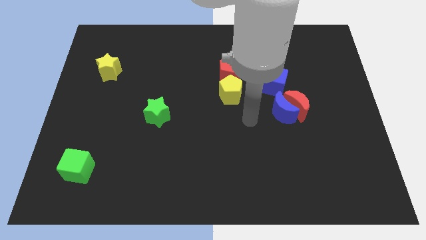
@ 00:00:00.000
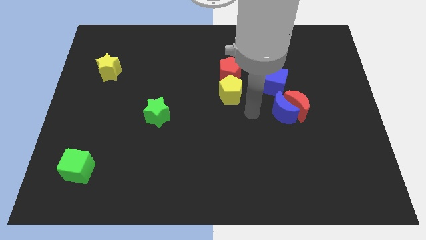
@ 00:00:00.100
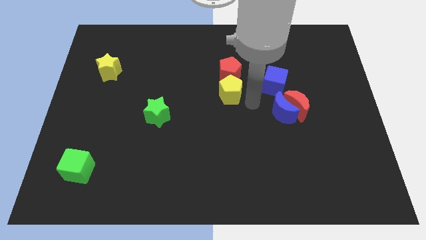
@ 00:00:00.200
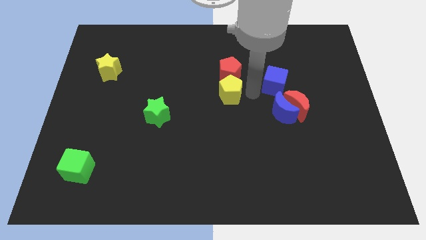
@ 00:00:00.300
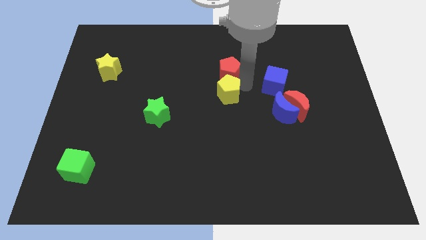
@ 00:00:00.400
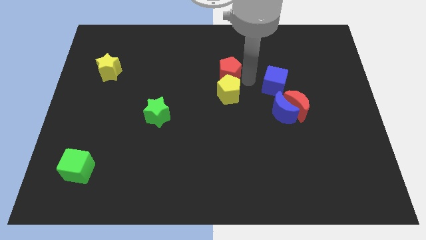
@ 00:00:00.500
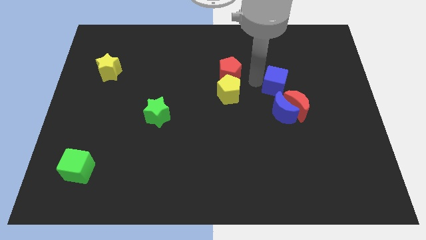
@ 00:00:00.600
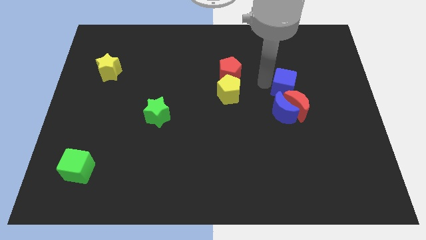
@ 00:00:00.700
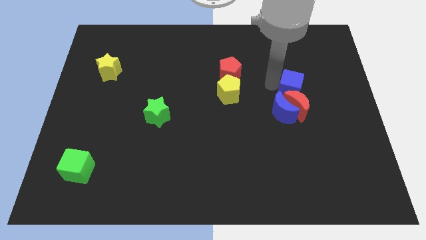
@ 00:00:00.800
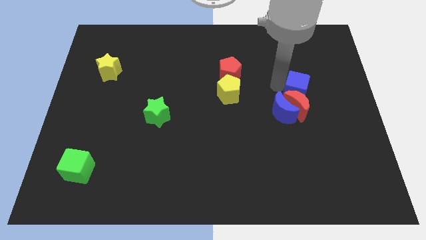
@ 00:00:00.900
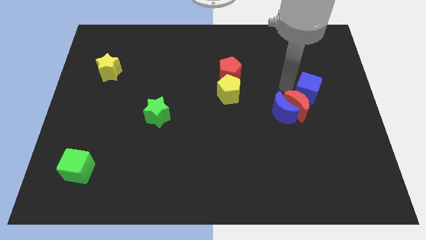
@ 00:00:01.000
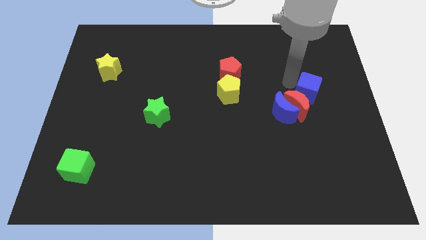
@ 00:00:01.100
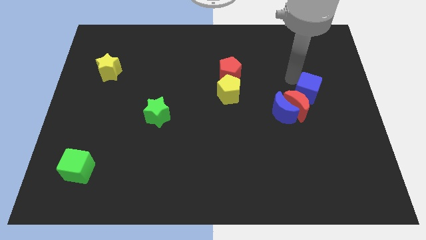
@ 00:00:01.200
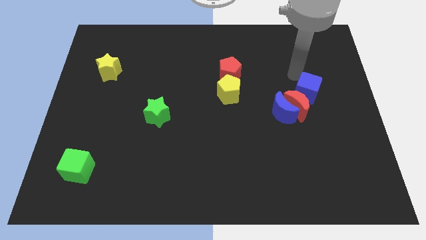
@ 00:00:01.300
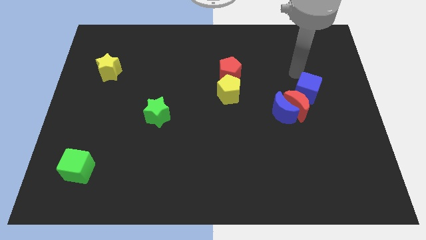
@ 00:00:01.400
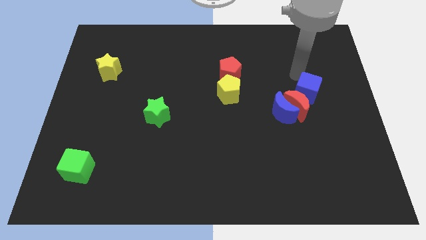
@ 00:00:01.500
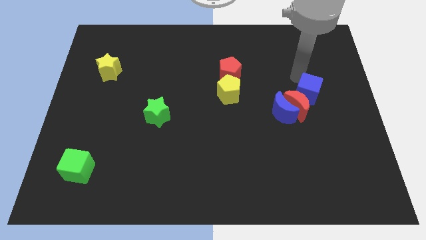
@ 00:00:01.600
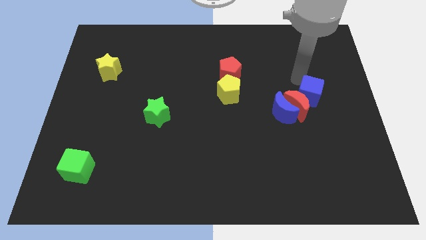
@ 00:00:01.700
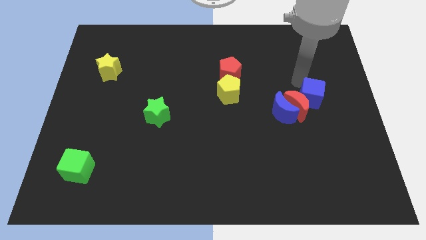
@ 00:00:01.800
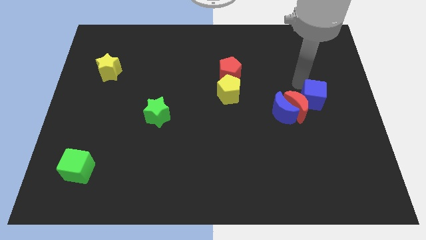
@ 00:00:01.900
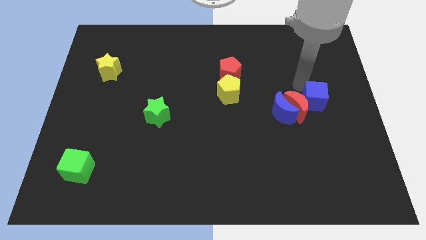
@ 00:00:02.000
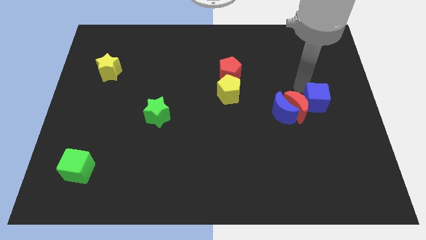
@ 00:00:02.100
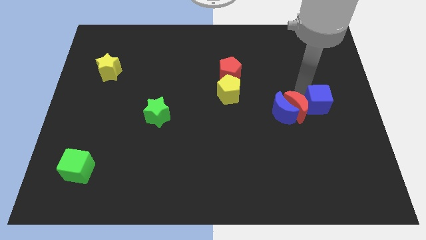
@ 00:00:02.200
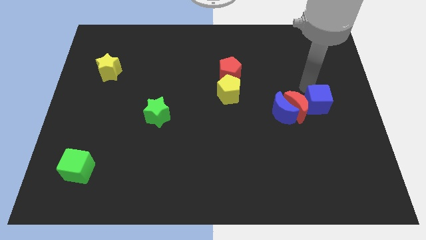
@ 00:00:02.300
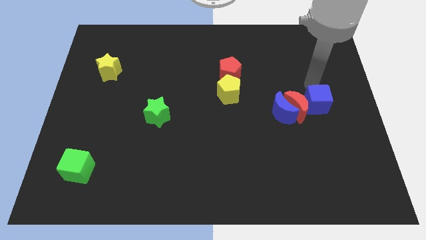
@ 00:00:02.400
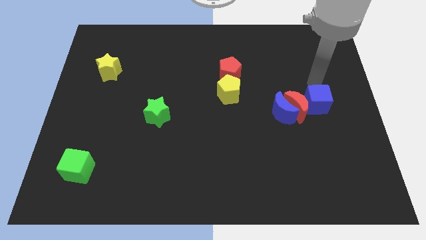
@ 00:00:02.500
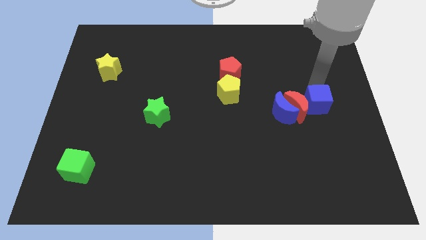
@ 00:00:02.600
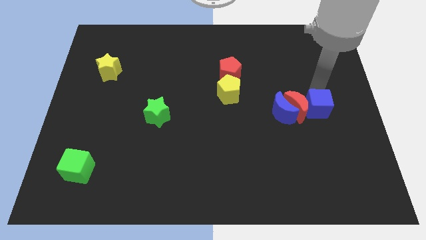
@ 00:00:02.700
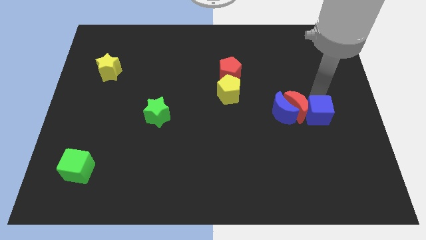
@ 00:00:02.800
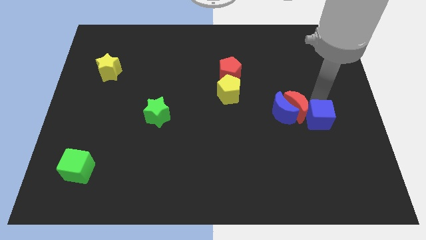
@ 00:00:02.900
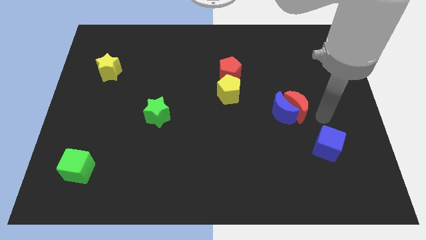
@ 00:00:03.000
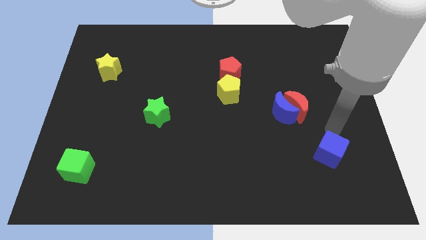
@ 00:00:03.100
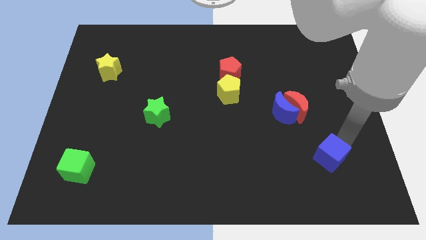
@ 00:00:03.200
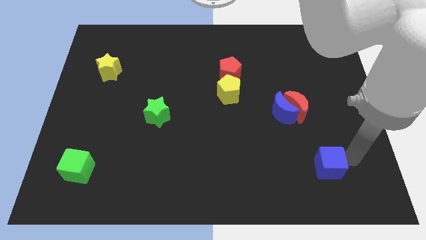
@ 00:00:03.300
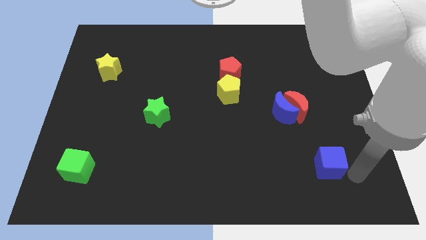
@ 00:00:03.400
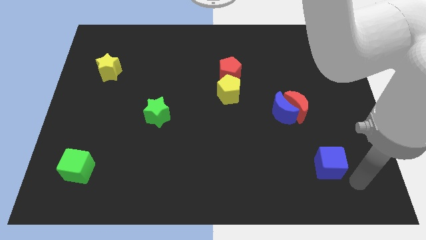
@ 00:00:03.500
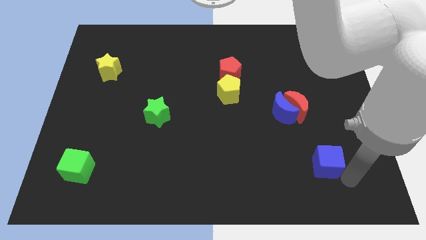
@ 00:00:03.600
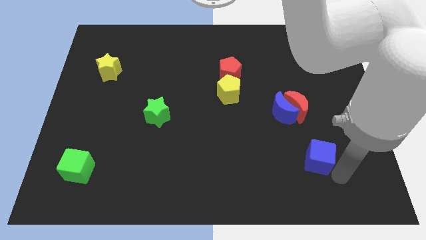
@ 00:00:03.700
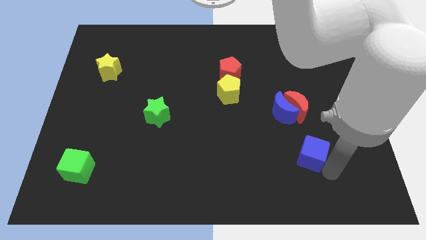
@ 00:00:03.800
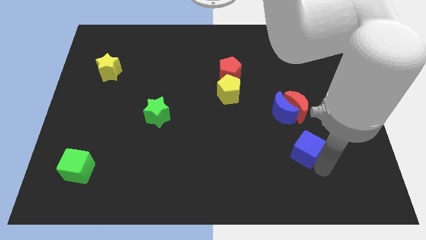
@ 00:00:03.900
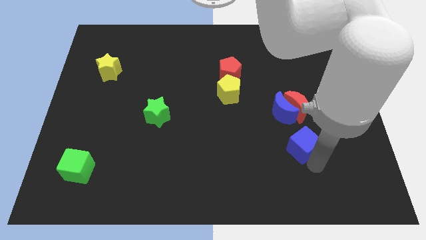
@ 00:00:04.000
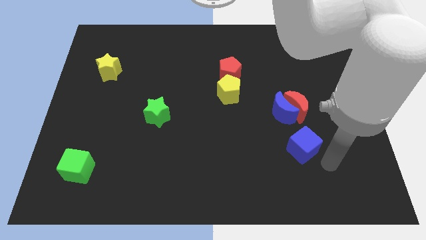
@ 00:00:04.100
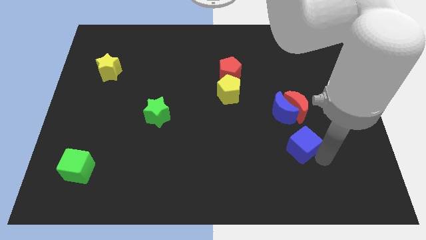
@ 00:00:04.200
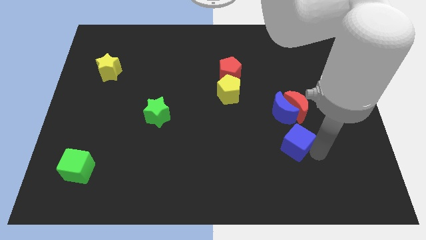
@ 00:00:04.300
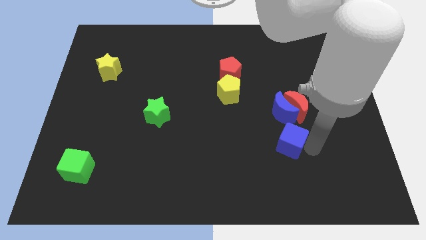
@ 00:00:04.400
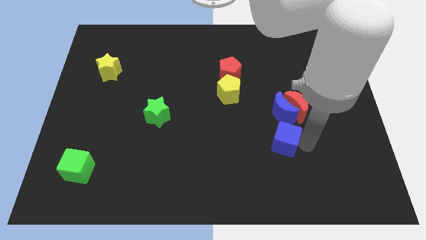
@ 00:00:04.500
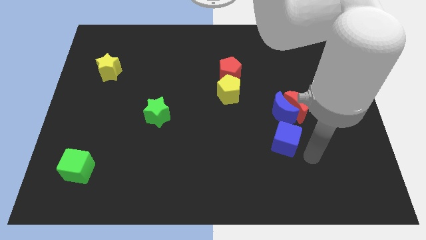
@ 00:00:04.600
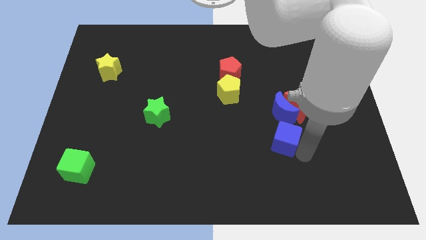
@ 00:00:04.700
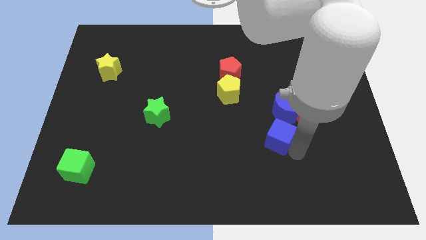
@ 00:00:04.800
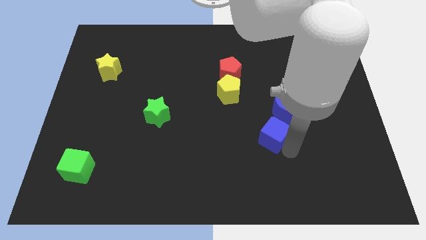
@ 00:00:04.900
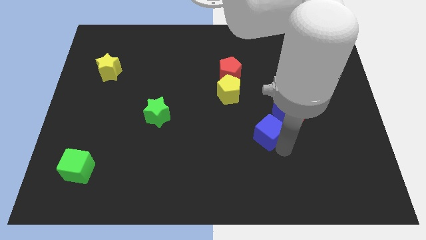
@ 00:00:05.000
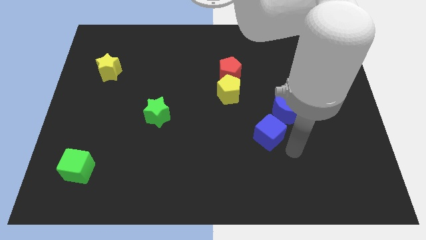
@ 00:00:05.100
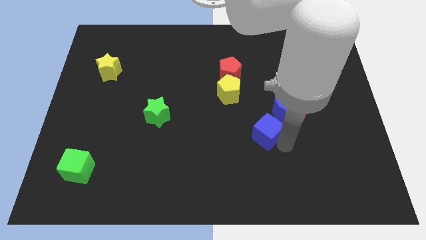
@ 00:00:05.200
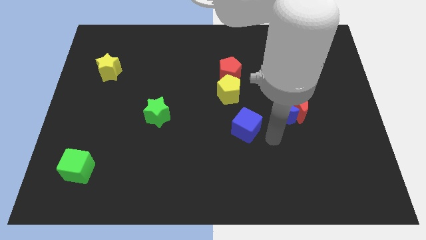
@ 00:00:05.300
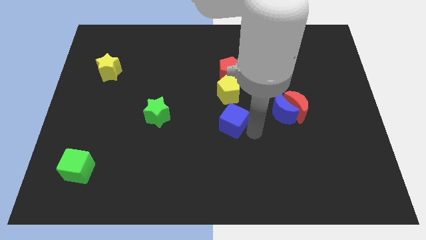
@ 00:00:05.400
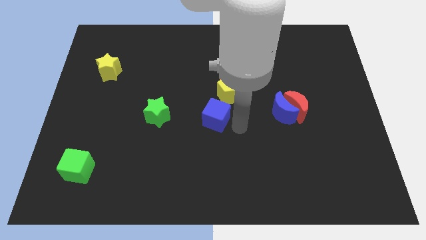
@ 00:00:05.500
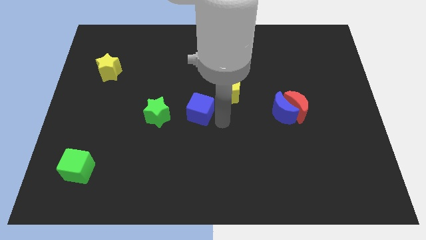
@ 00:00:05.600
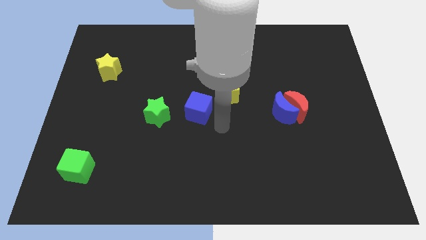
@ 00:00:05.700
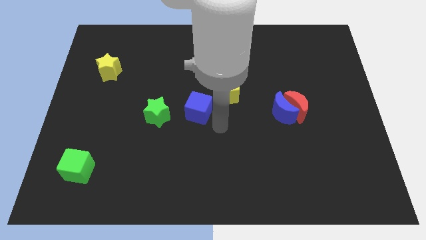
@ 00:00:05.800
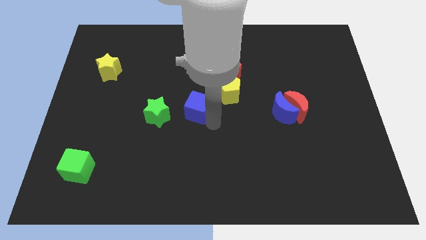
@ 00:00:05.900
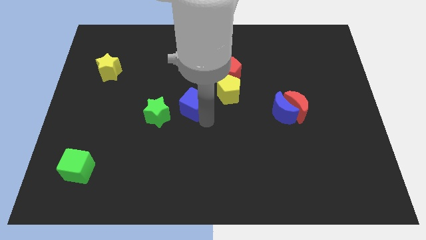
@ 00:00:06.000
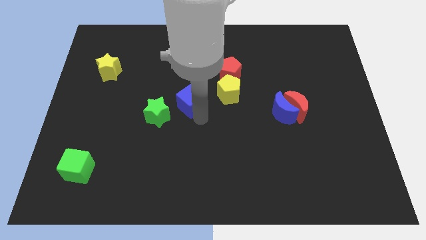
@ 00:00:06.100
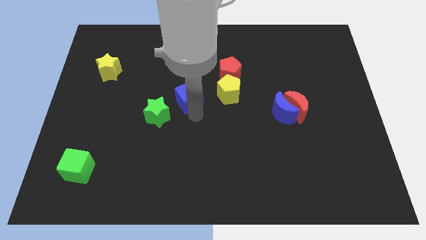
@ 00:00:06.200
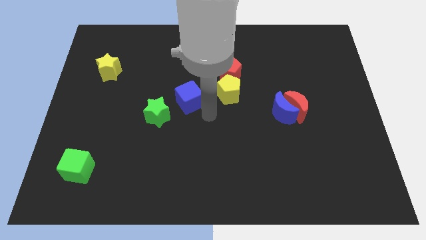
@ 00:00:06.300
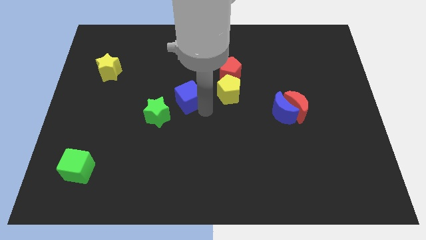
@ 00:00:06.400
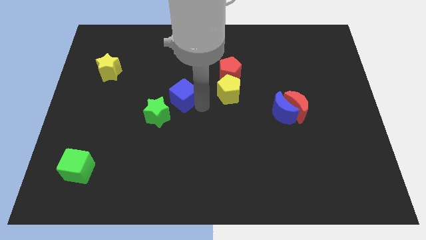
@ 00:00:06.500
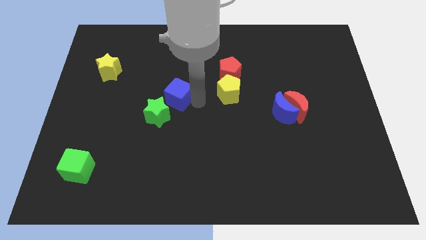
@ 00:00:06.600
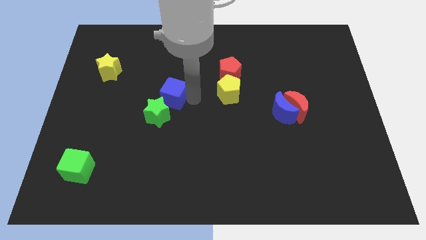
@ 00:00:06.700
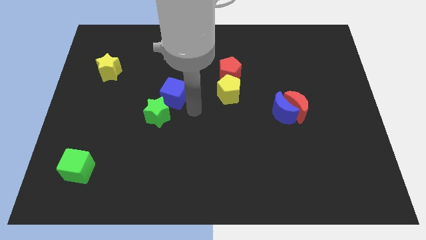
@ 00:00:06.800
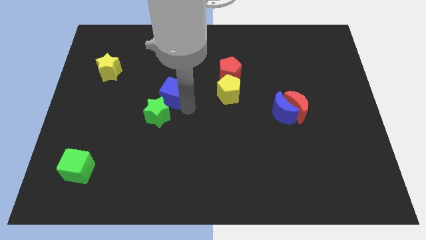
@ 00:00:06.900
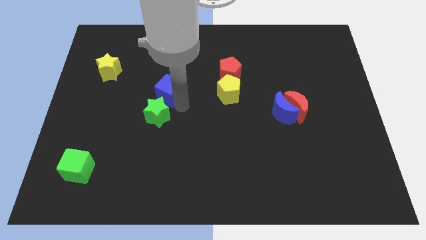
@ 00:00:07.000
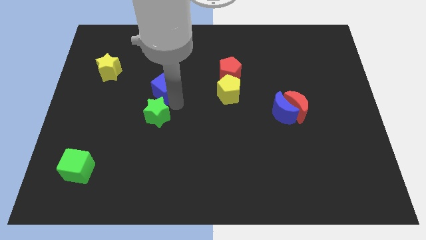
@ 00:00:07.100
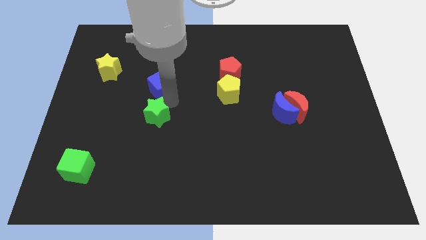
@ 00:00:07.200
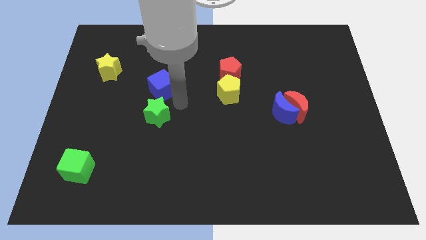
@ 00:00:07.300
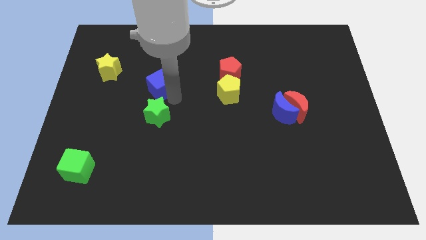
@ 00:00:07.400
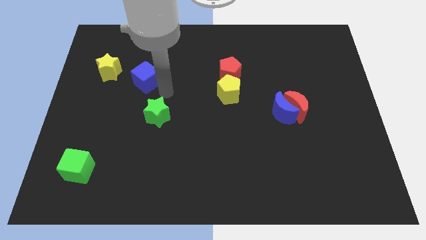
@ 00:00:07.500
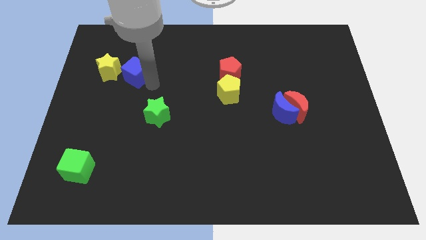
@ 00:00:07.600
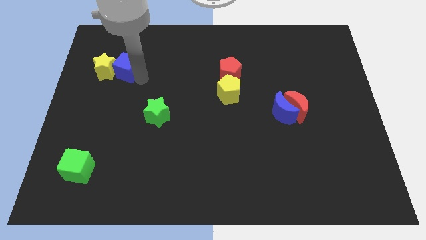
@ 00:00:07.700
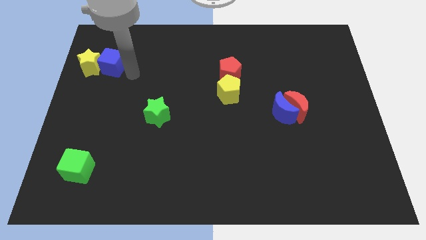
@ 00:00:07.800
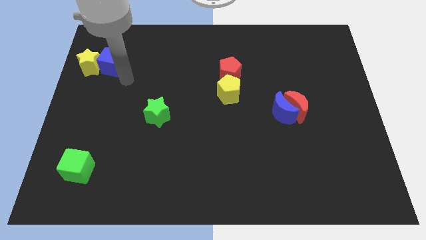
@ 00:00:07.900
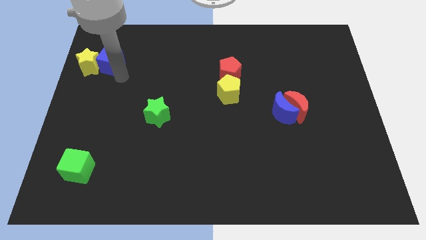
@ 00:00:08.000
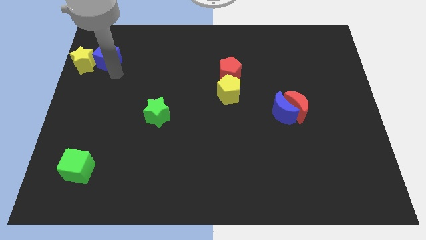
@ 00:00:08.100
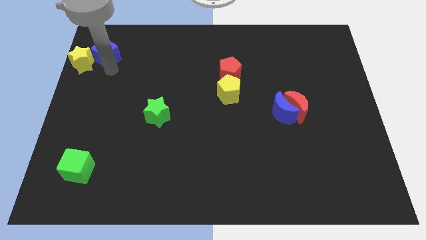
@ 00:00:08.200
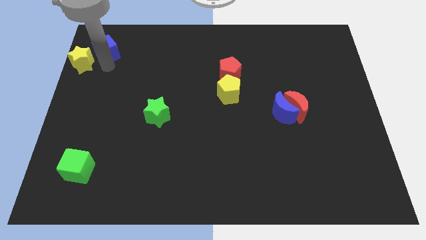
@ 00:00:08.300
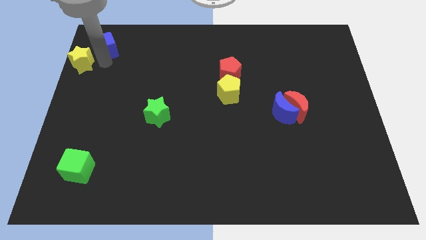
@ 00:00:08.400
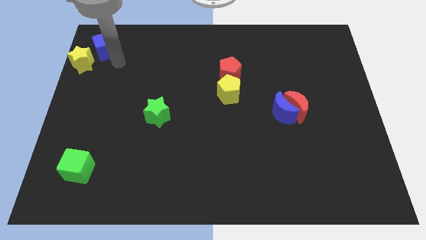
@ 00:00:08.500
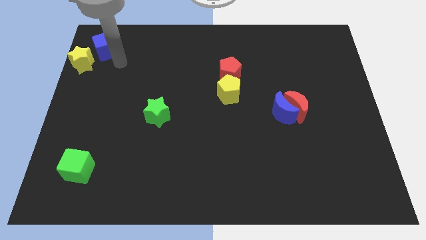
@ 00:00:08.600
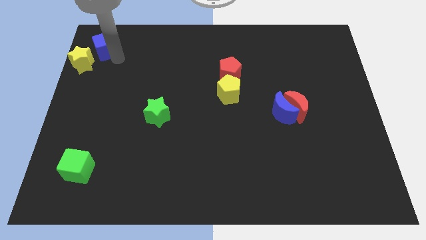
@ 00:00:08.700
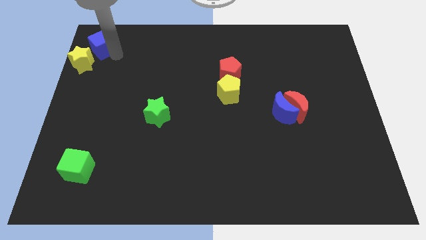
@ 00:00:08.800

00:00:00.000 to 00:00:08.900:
move the blue cube to the top left
